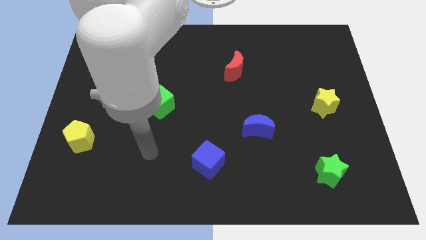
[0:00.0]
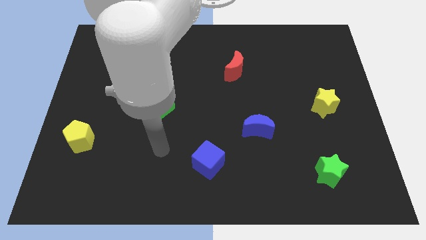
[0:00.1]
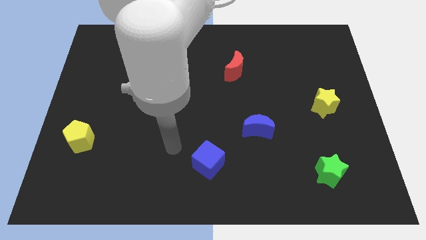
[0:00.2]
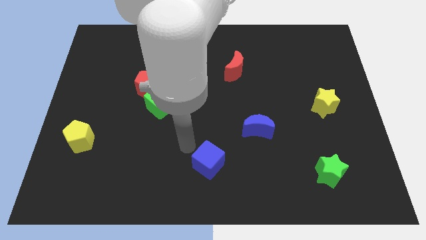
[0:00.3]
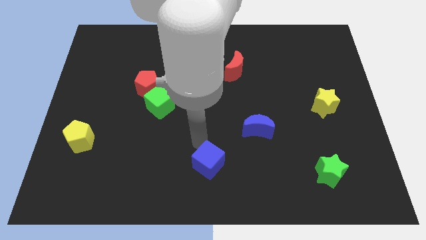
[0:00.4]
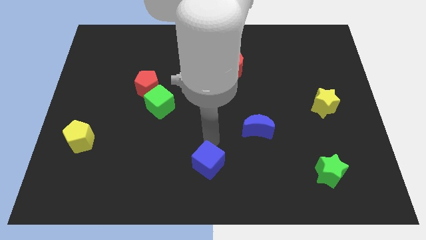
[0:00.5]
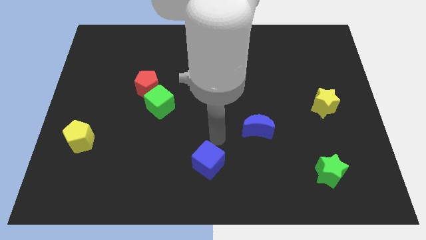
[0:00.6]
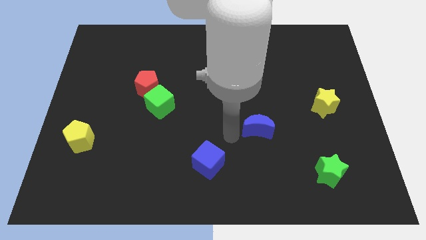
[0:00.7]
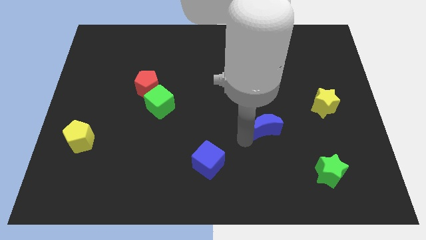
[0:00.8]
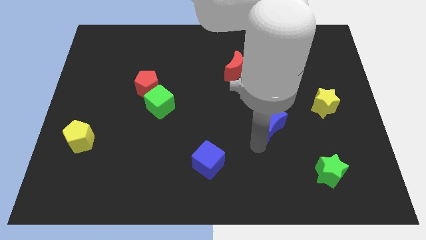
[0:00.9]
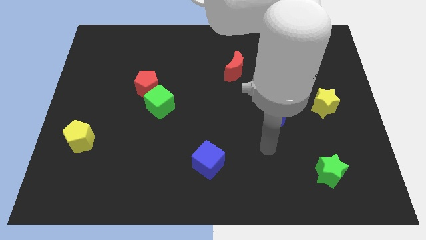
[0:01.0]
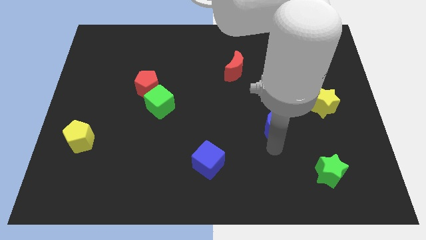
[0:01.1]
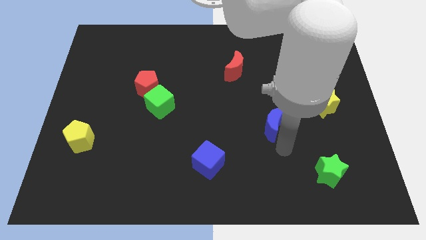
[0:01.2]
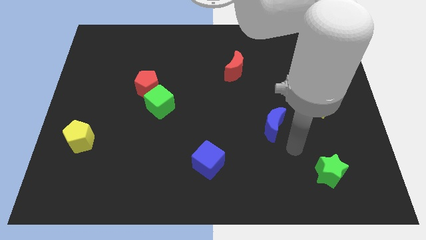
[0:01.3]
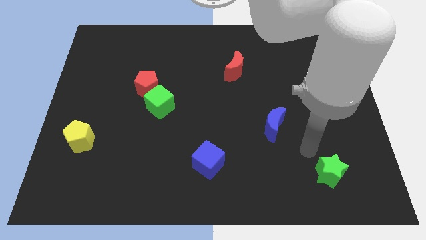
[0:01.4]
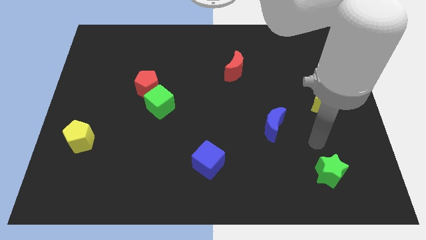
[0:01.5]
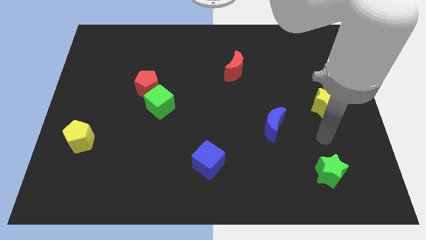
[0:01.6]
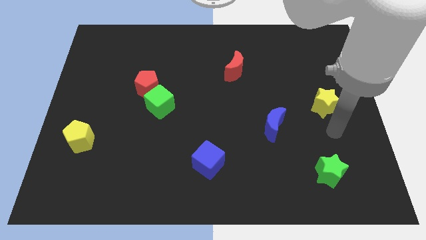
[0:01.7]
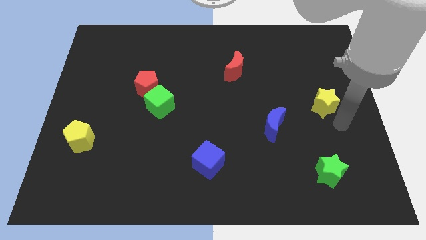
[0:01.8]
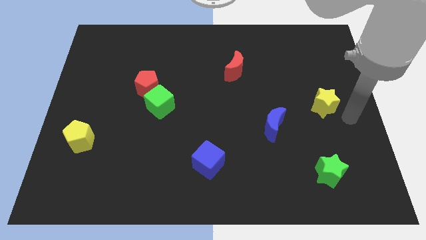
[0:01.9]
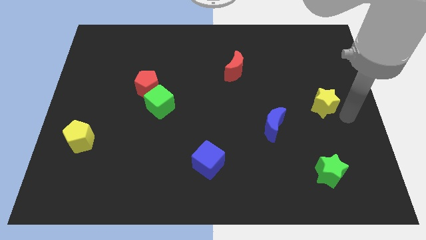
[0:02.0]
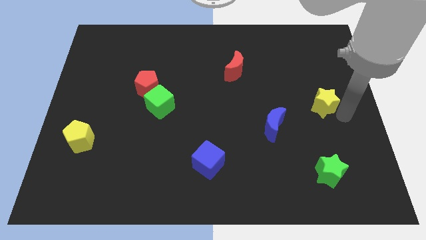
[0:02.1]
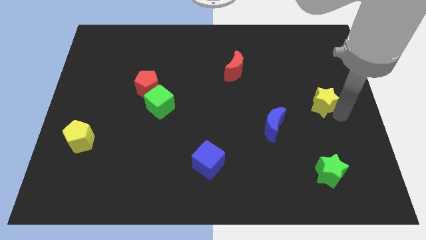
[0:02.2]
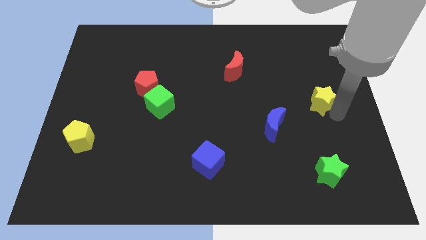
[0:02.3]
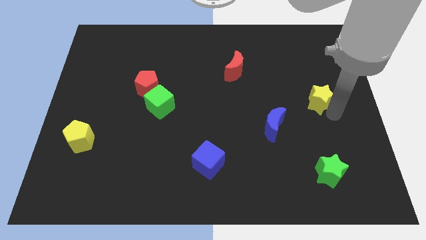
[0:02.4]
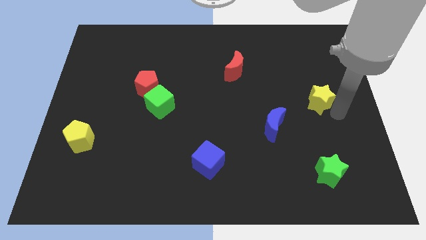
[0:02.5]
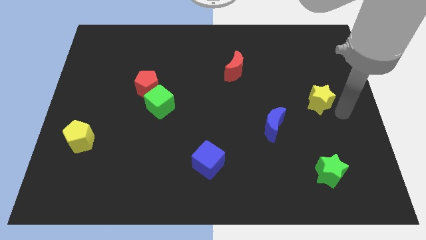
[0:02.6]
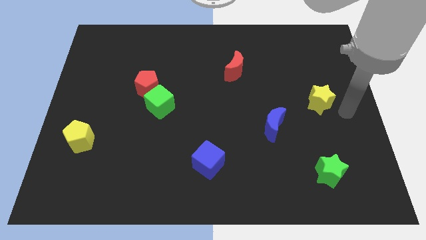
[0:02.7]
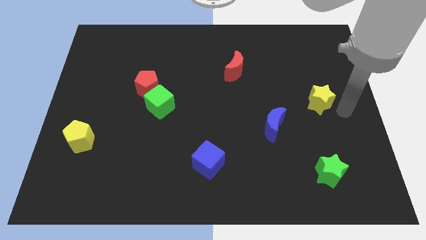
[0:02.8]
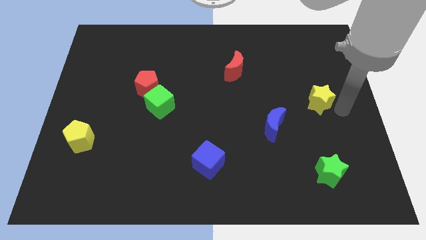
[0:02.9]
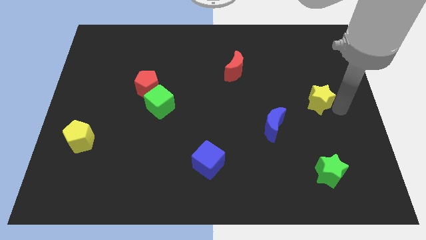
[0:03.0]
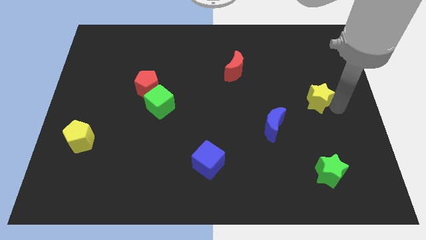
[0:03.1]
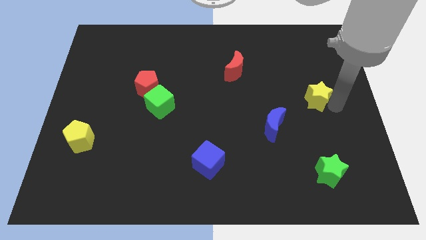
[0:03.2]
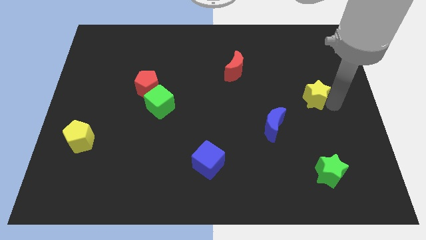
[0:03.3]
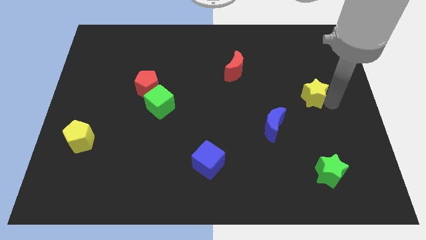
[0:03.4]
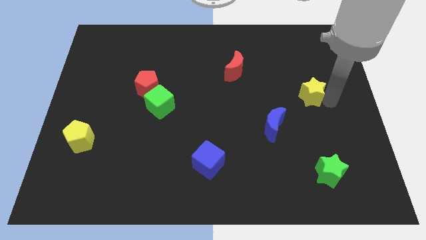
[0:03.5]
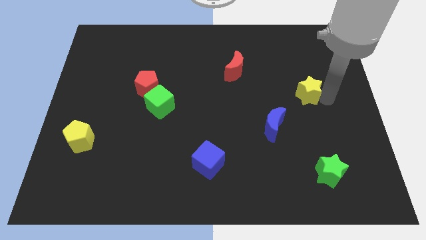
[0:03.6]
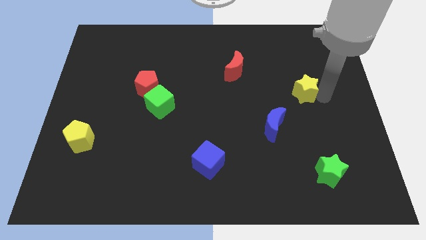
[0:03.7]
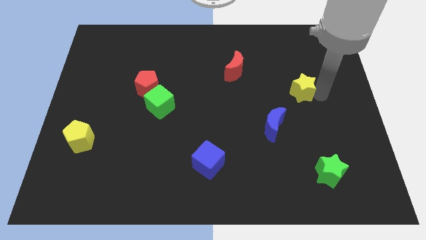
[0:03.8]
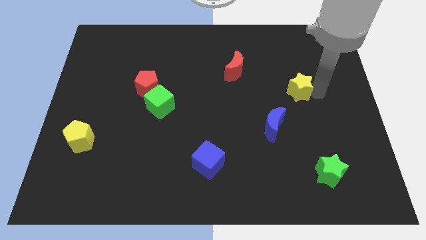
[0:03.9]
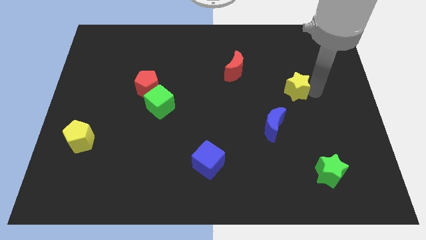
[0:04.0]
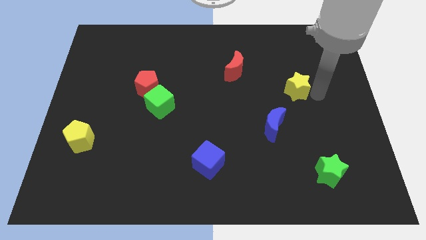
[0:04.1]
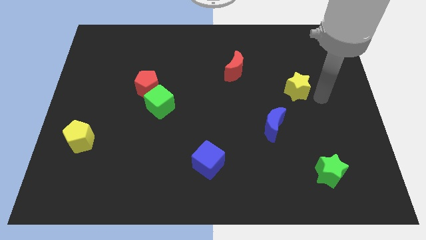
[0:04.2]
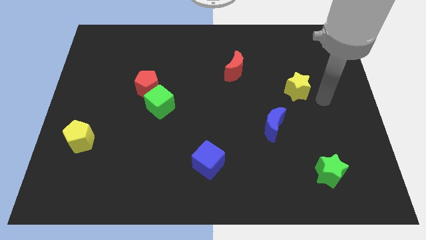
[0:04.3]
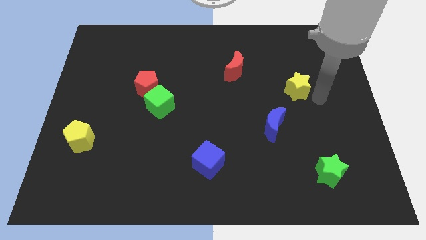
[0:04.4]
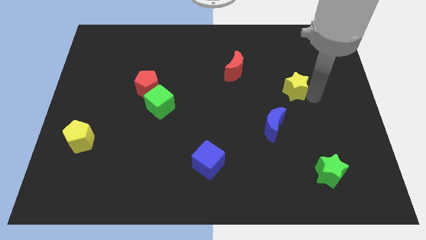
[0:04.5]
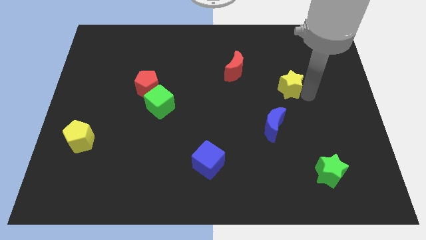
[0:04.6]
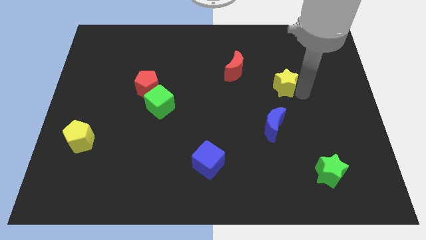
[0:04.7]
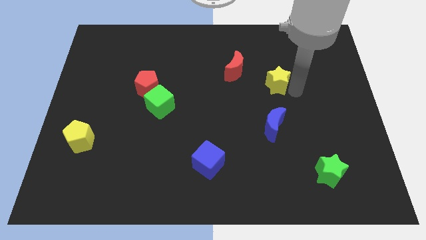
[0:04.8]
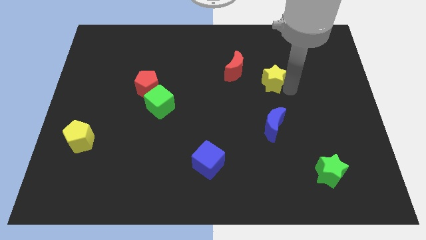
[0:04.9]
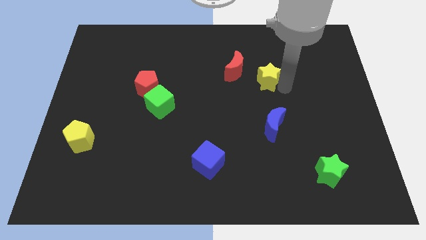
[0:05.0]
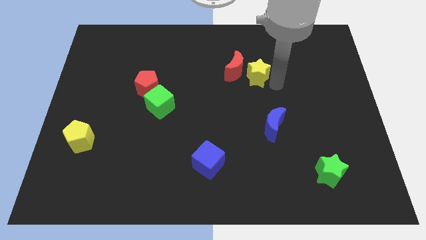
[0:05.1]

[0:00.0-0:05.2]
push the yellow star close to the red moon

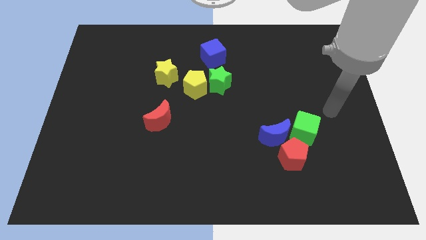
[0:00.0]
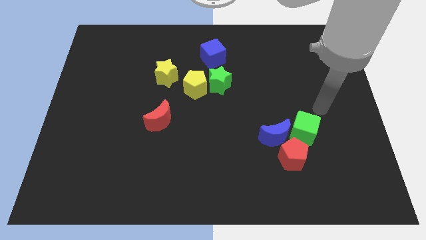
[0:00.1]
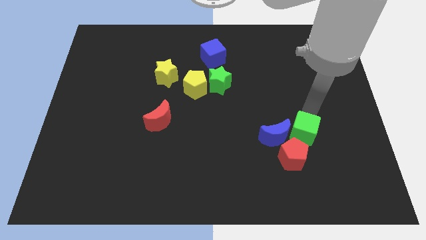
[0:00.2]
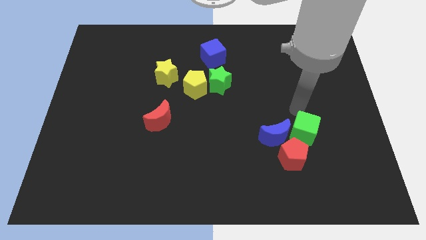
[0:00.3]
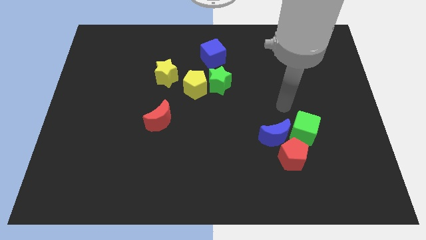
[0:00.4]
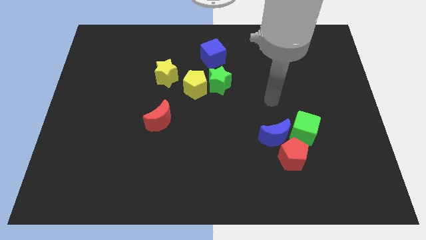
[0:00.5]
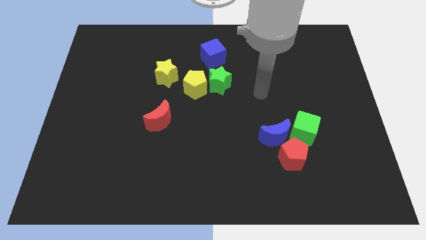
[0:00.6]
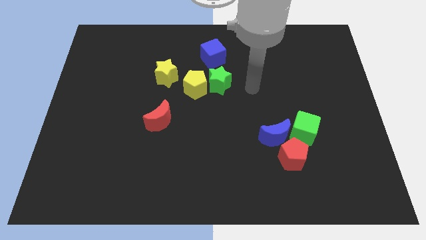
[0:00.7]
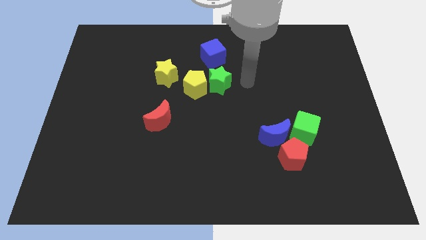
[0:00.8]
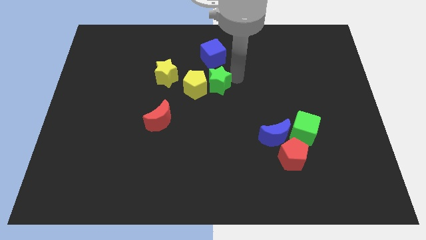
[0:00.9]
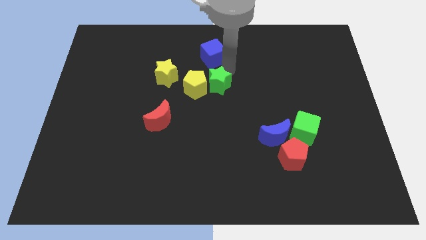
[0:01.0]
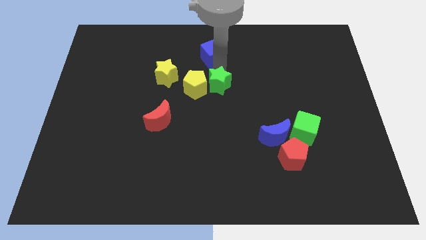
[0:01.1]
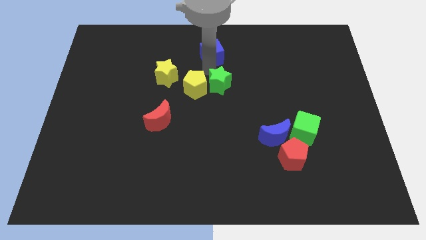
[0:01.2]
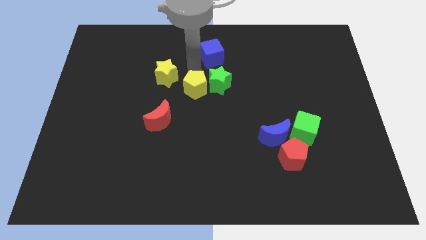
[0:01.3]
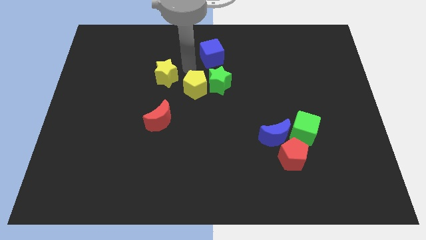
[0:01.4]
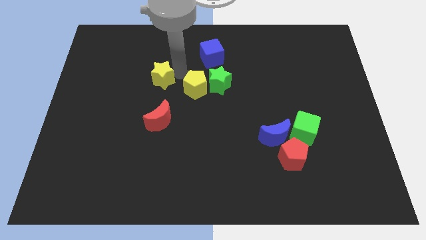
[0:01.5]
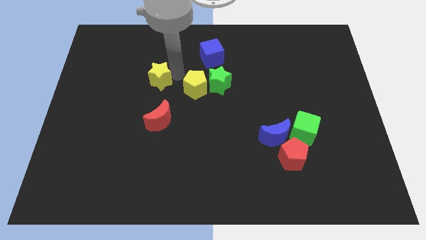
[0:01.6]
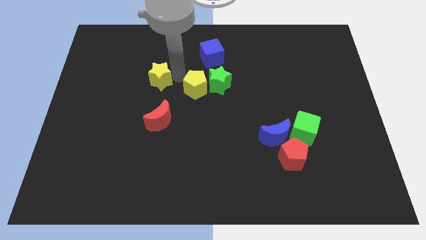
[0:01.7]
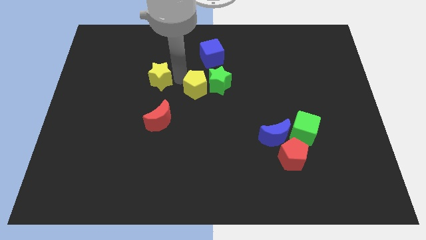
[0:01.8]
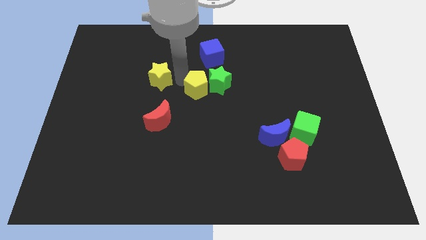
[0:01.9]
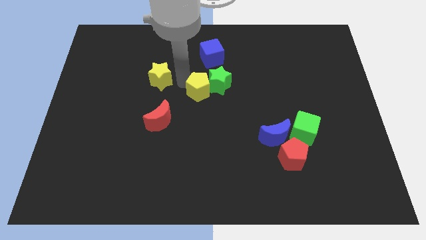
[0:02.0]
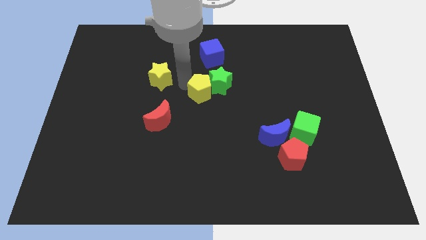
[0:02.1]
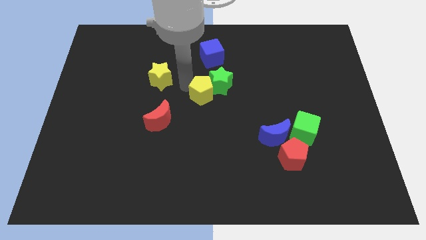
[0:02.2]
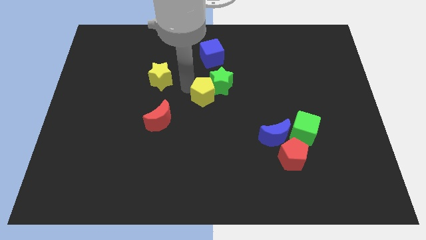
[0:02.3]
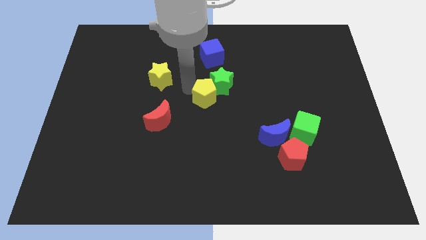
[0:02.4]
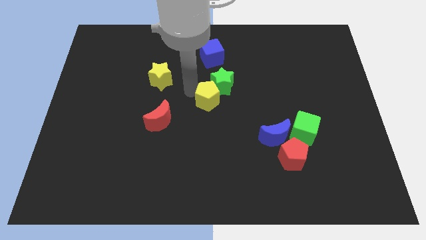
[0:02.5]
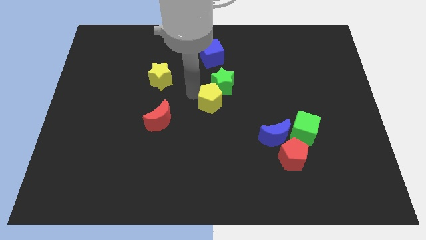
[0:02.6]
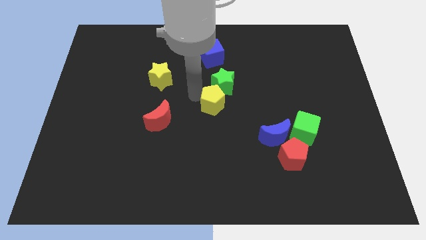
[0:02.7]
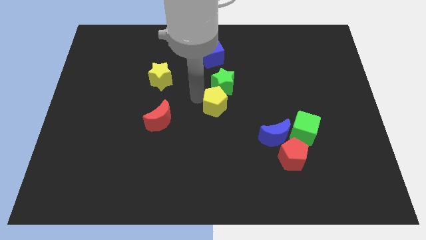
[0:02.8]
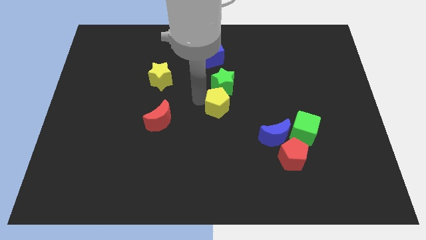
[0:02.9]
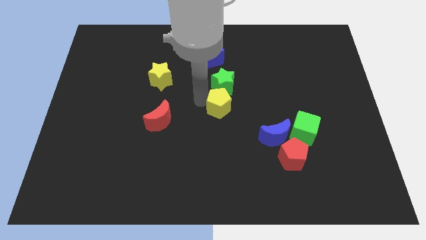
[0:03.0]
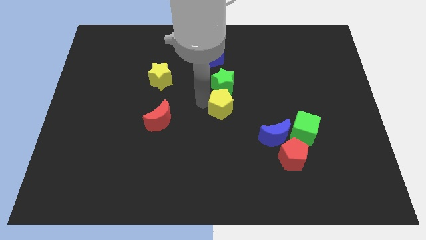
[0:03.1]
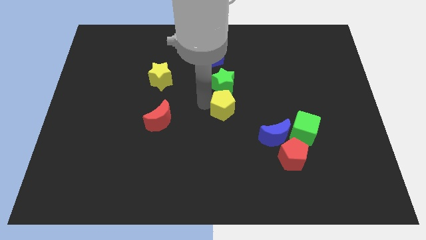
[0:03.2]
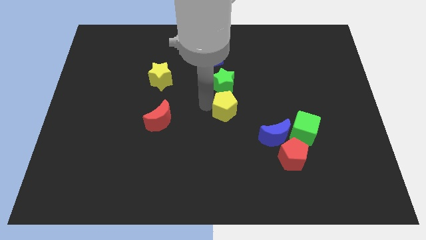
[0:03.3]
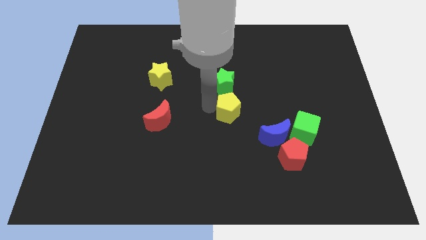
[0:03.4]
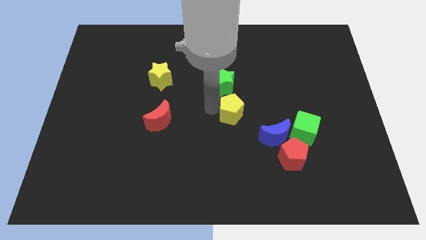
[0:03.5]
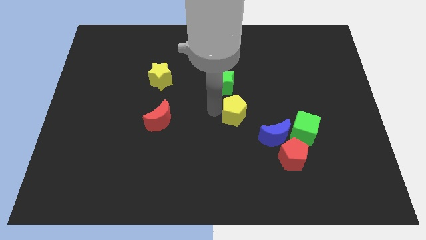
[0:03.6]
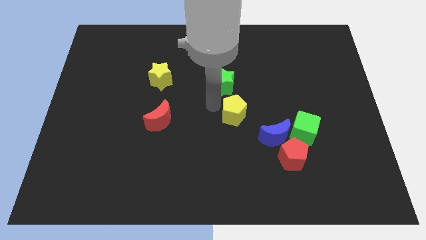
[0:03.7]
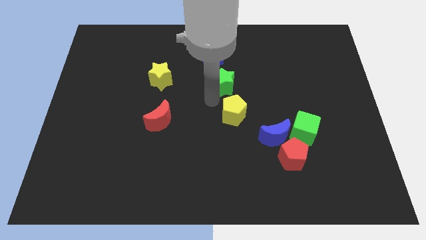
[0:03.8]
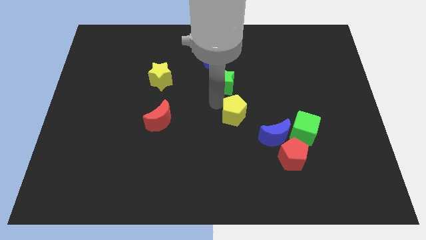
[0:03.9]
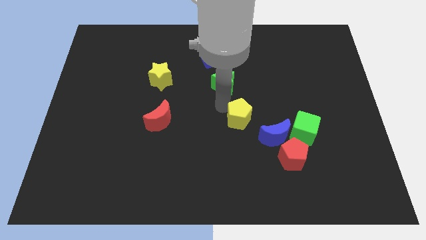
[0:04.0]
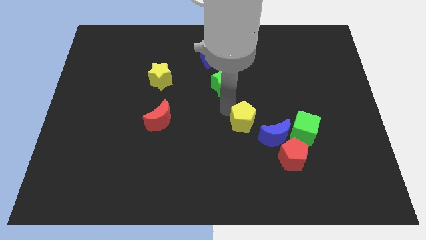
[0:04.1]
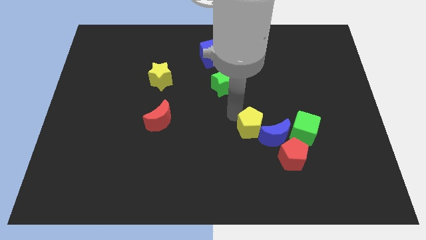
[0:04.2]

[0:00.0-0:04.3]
move the yellow pentagon towards the blue moon
